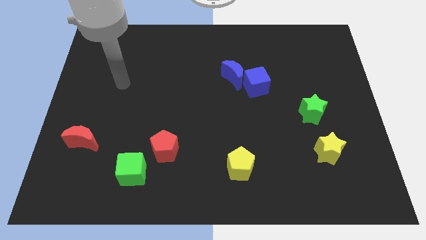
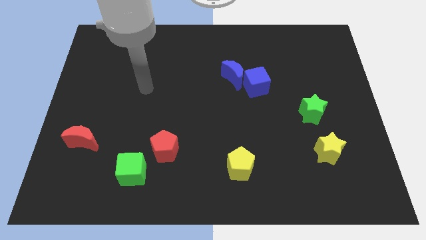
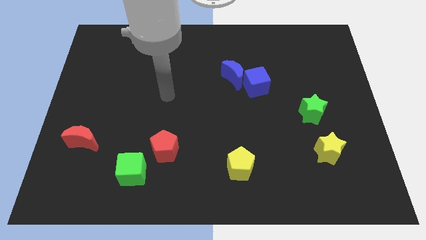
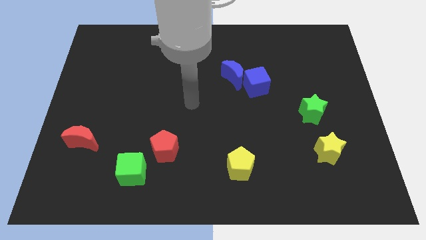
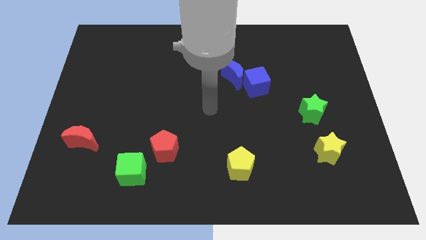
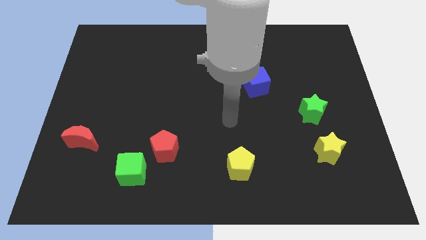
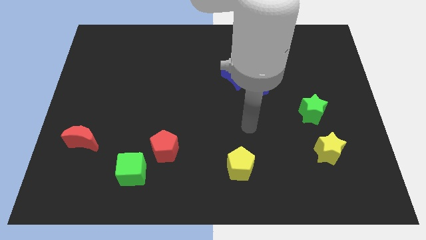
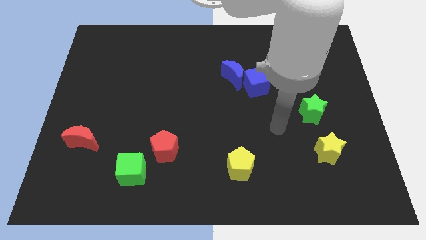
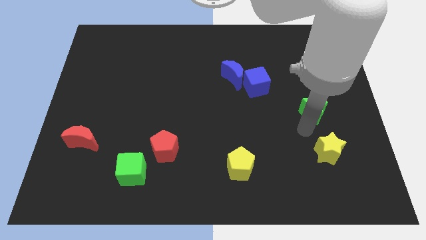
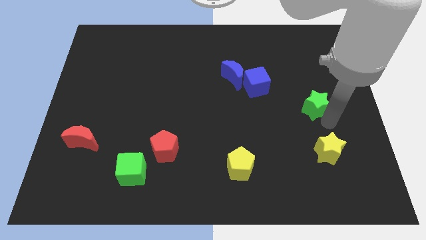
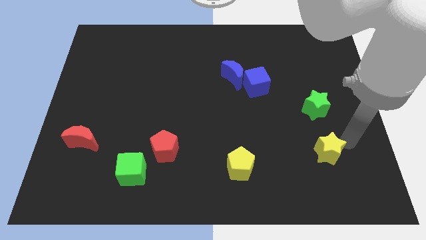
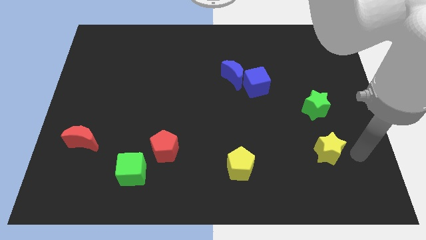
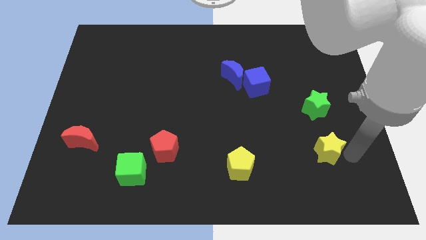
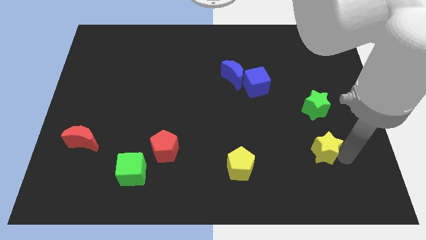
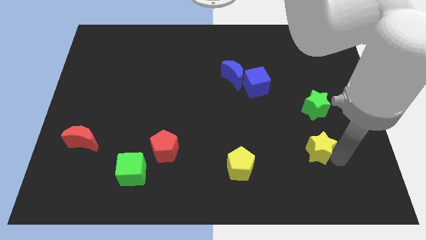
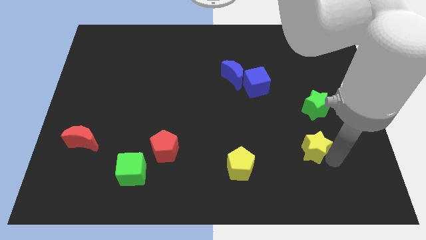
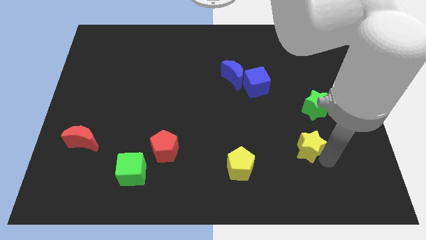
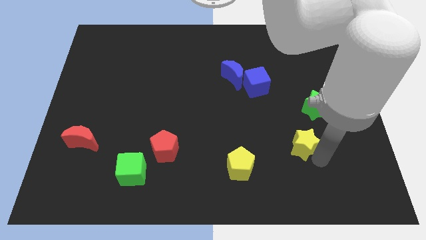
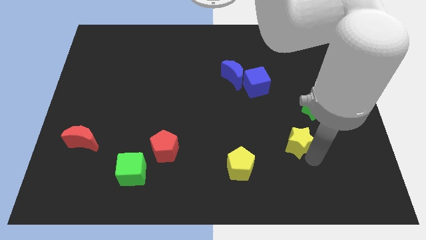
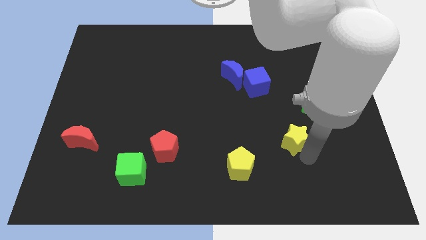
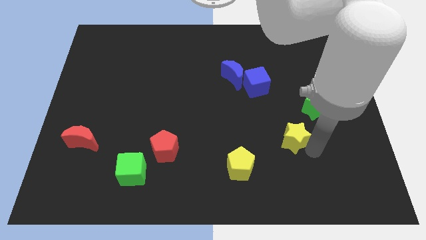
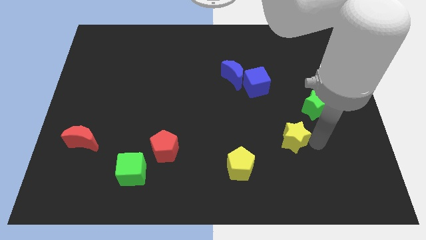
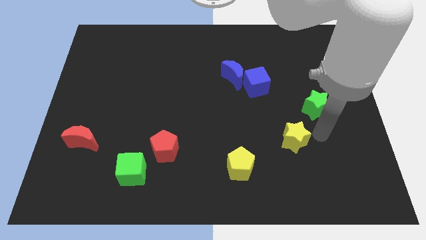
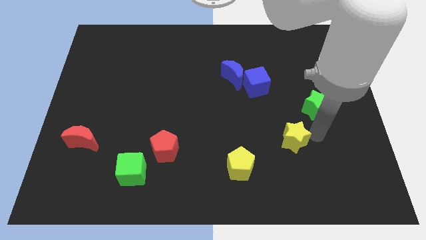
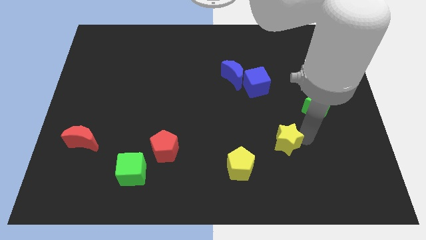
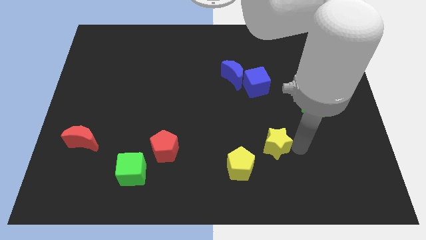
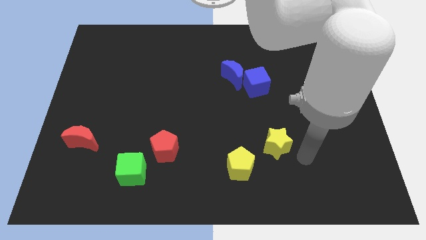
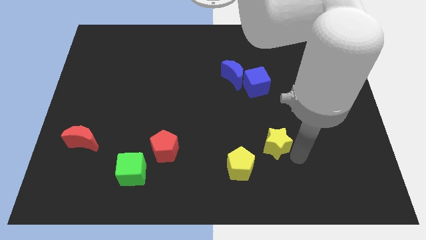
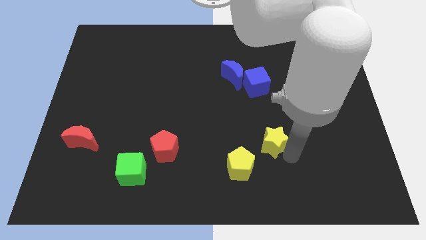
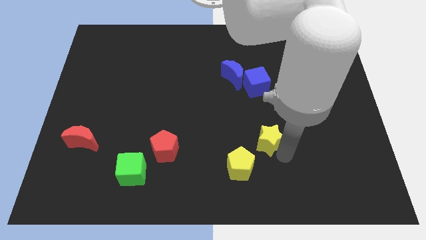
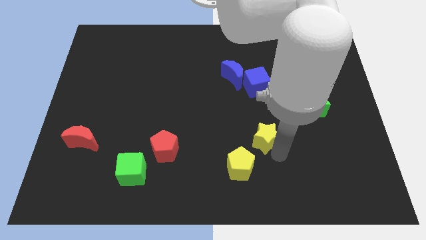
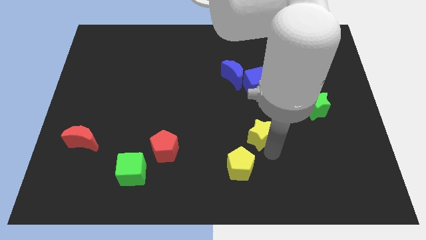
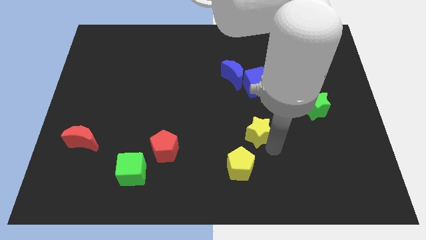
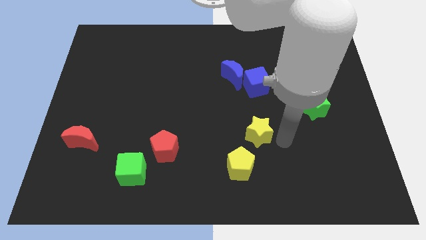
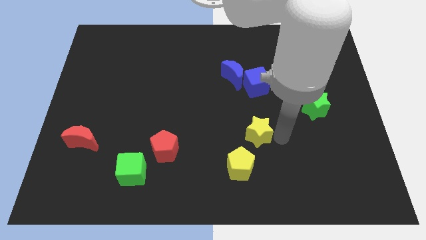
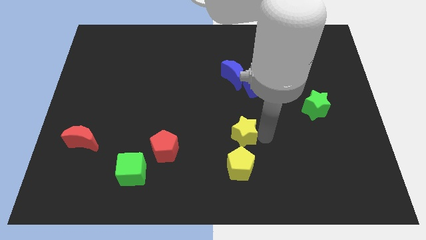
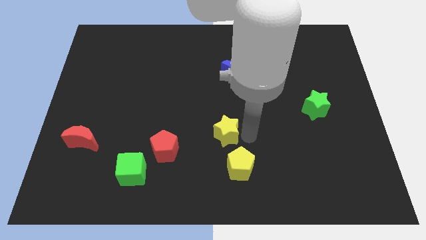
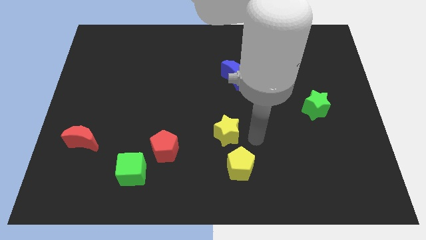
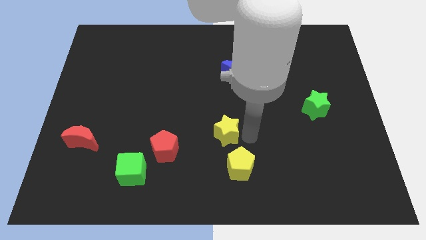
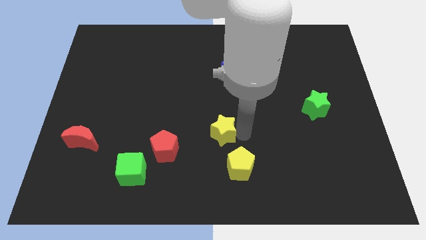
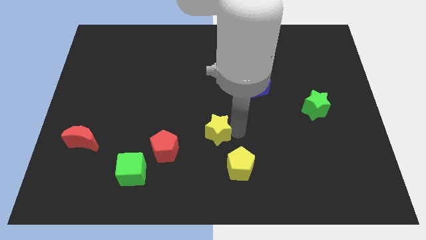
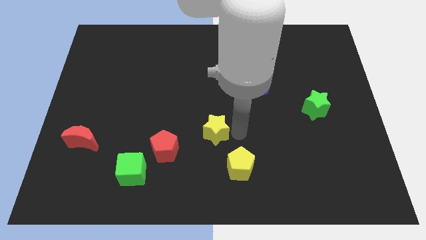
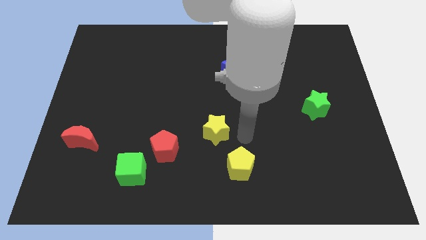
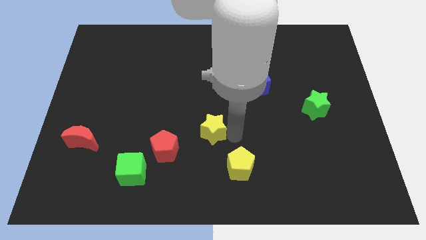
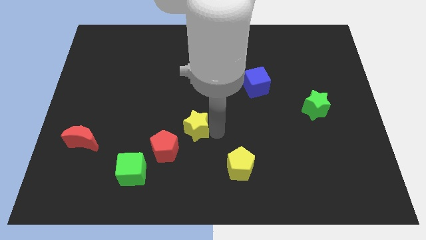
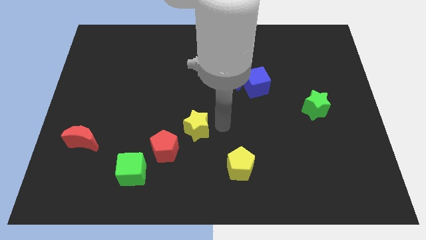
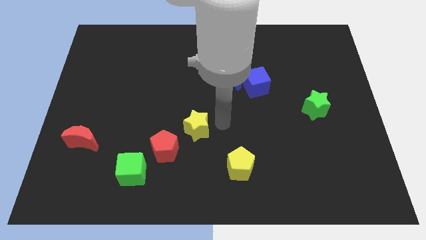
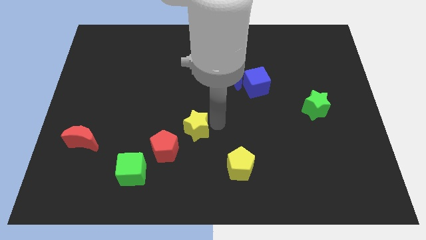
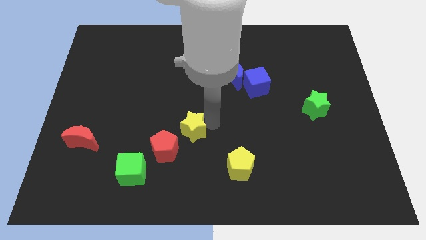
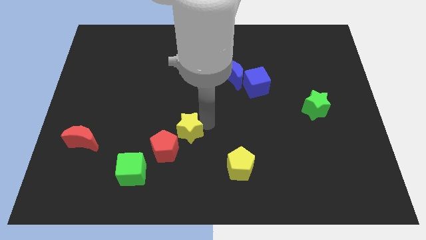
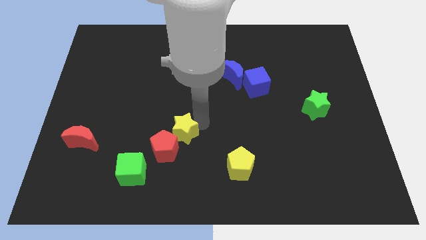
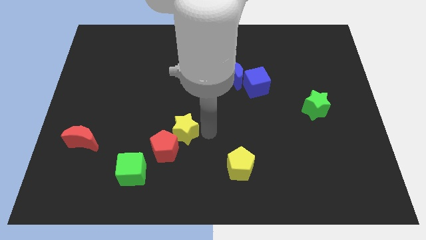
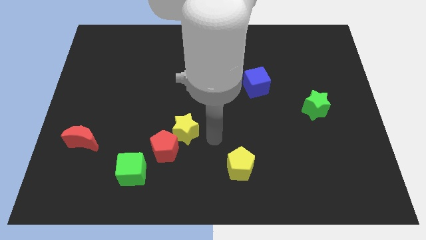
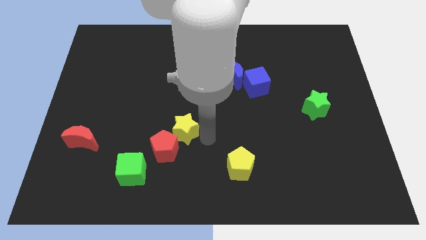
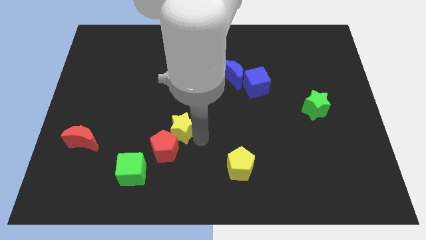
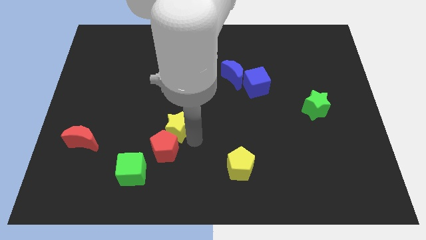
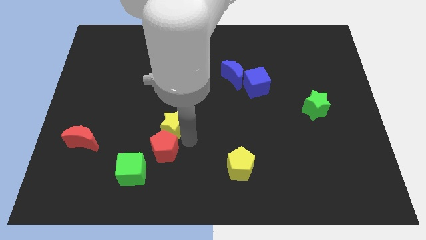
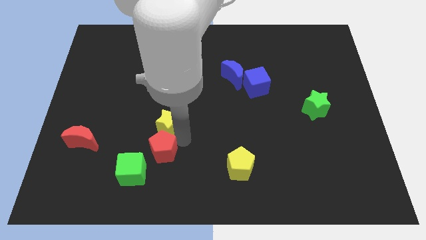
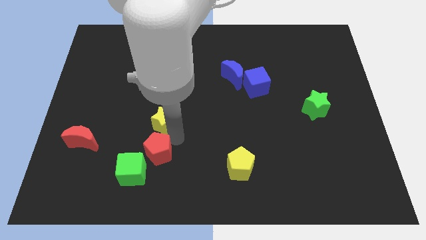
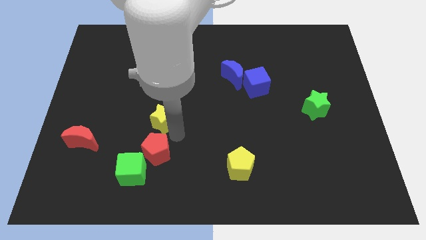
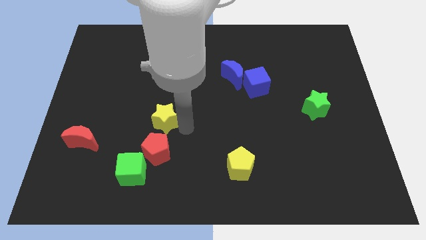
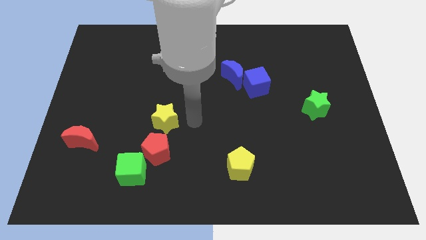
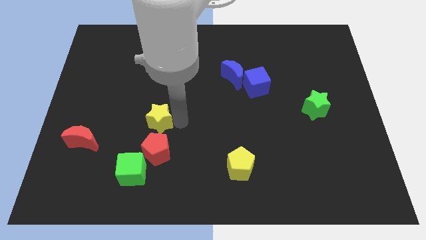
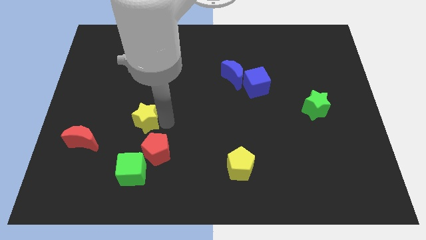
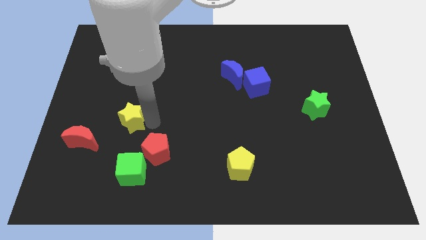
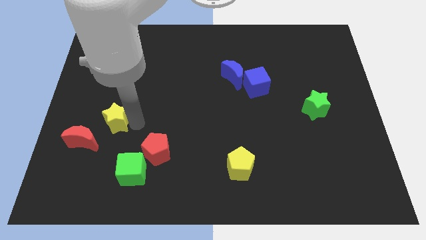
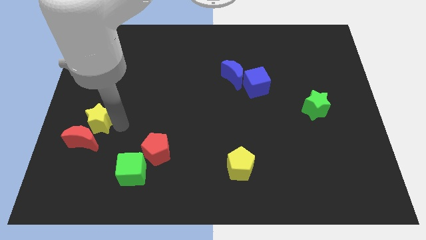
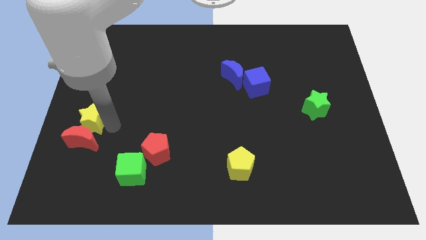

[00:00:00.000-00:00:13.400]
put the yellow star to the left side of the board

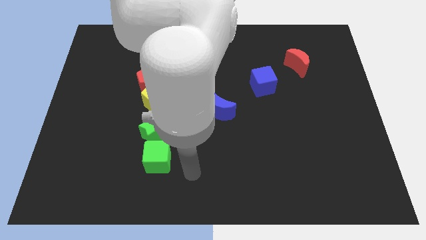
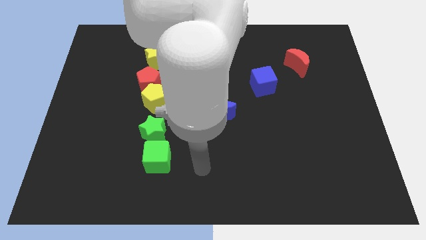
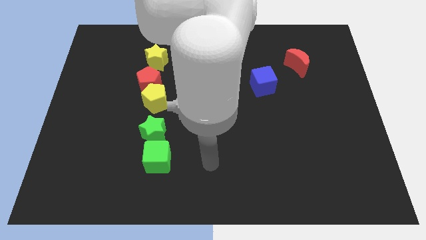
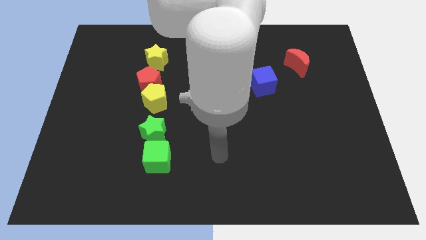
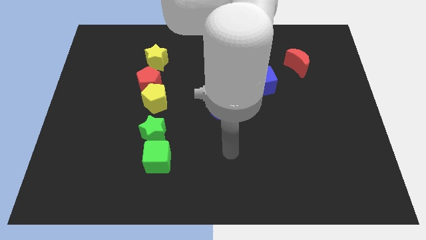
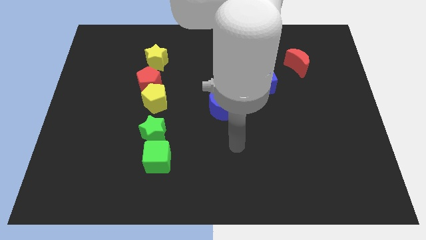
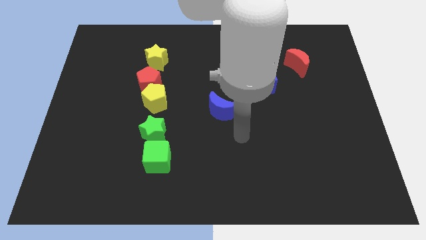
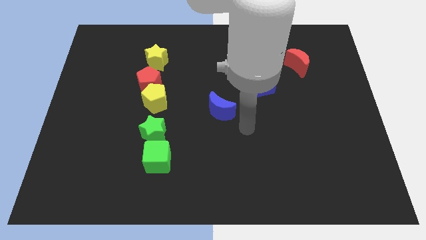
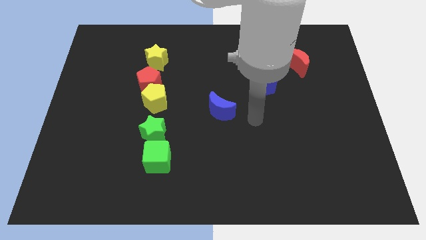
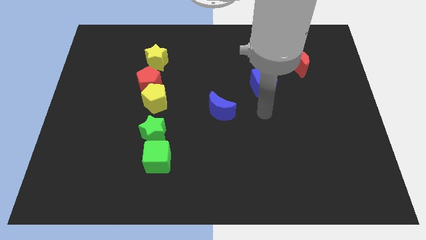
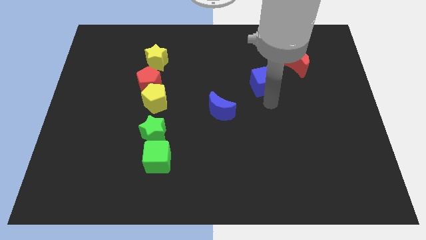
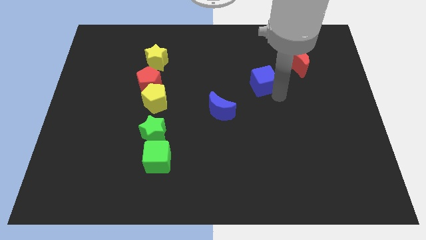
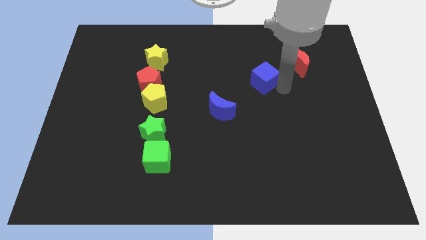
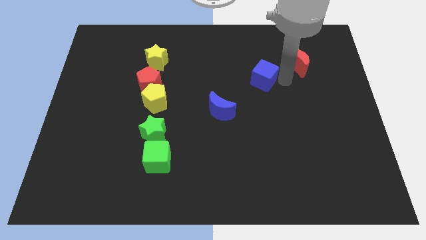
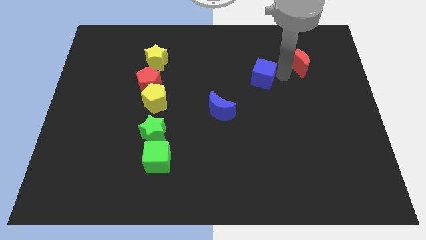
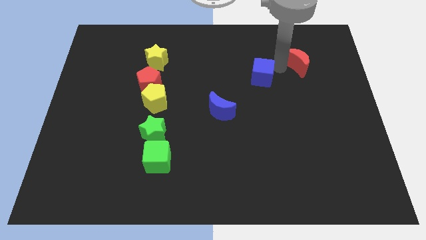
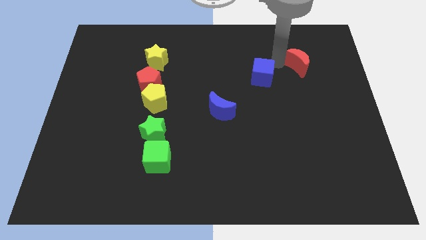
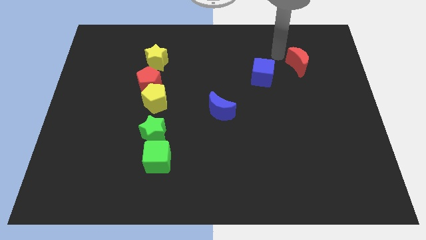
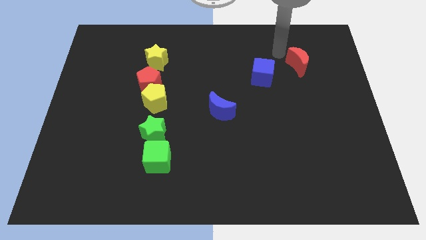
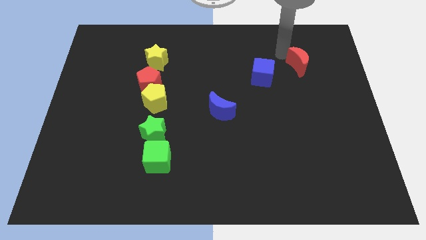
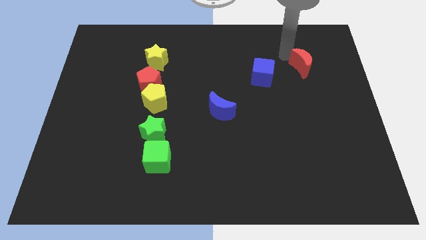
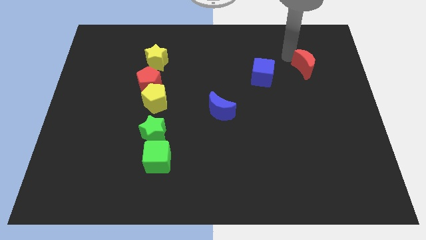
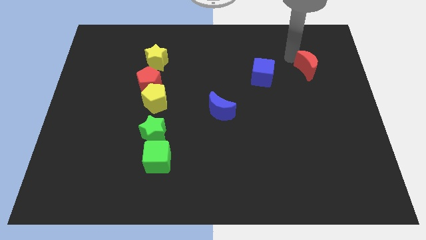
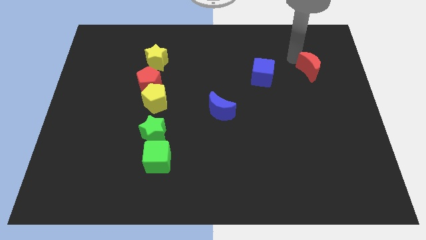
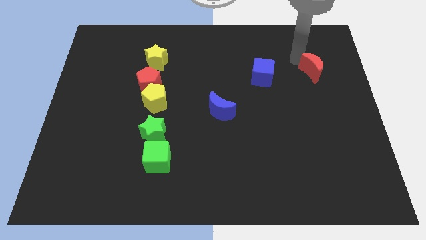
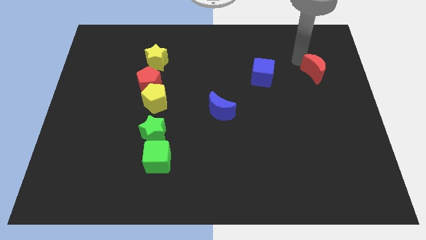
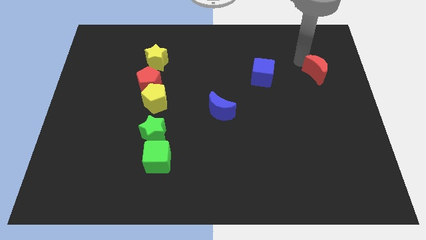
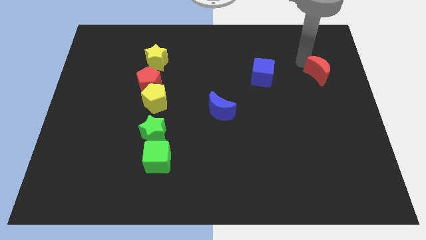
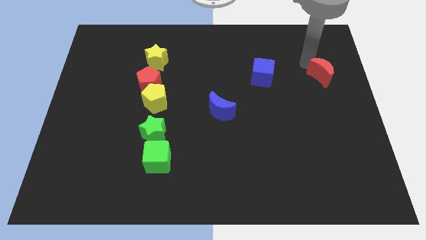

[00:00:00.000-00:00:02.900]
move the red moon to the right side
